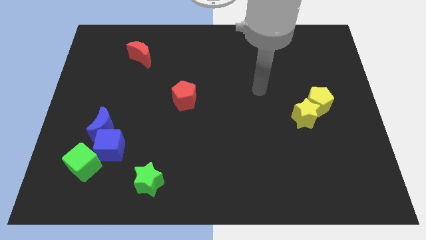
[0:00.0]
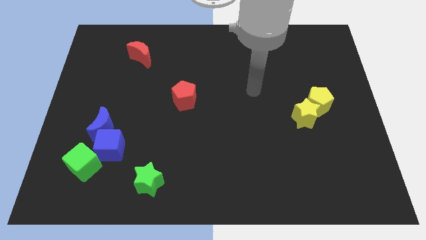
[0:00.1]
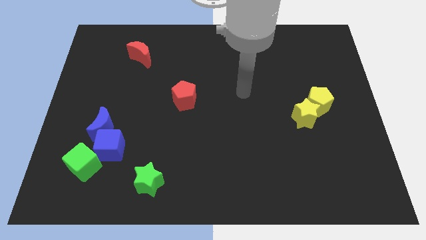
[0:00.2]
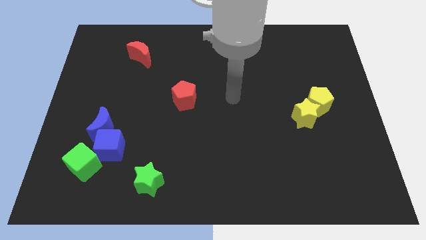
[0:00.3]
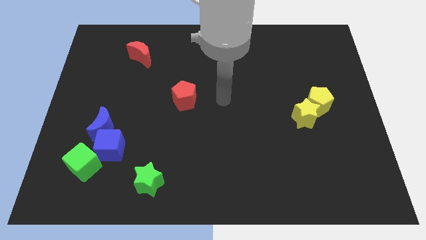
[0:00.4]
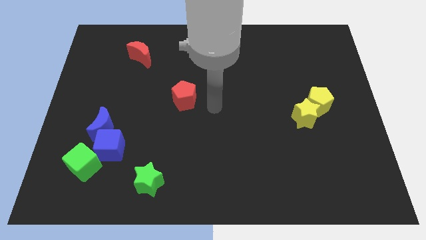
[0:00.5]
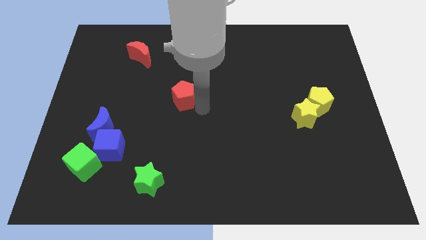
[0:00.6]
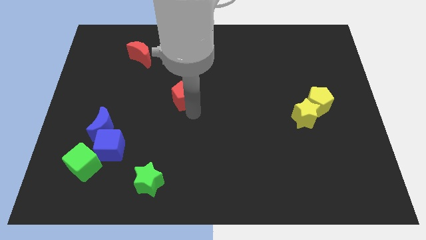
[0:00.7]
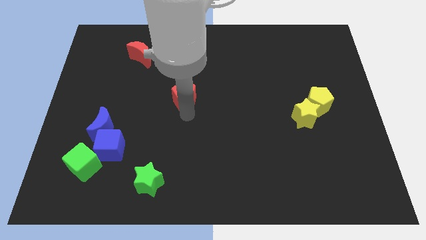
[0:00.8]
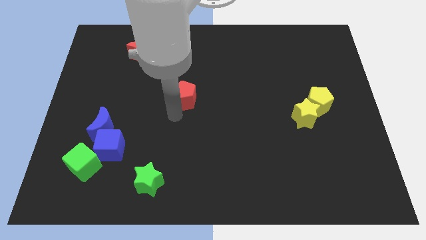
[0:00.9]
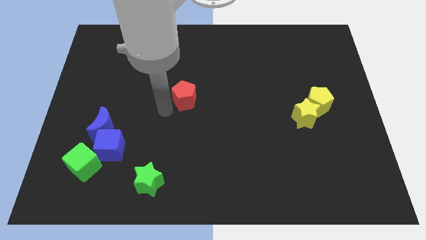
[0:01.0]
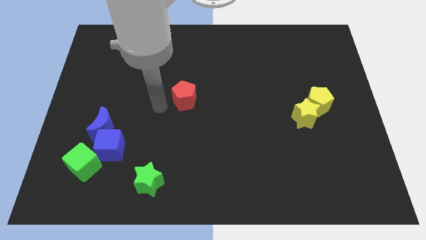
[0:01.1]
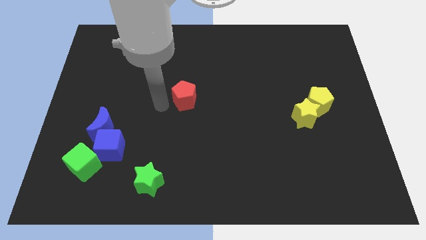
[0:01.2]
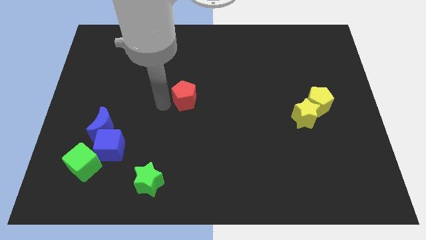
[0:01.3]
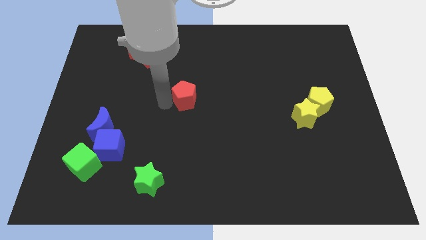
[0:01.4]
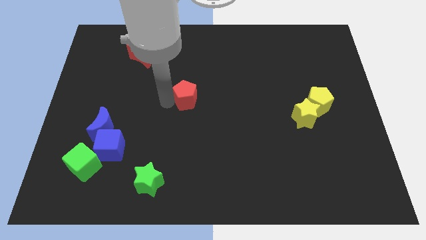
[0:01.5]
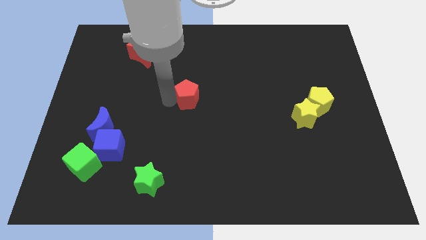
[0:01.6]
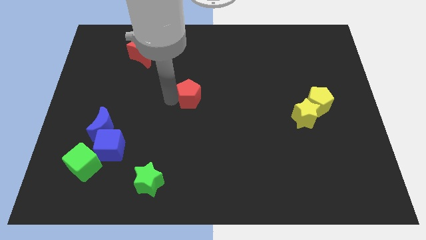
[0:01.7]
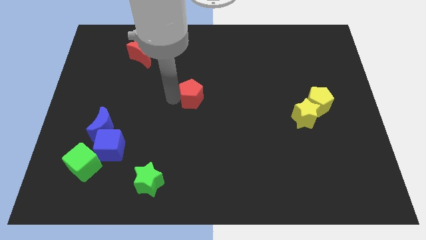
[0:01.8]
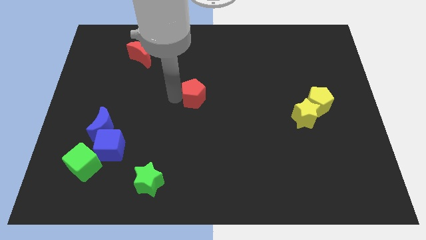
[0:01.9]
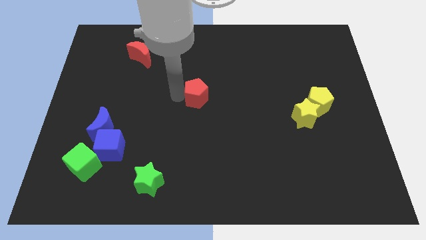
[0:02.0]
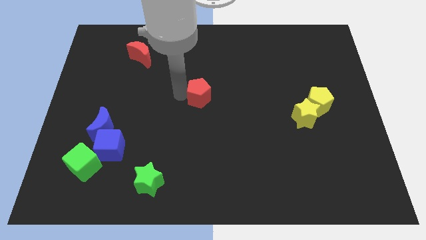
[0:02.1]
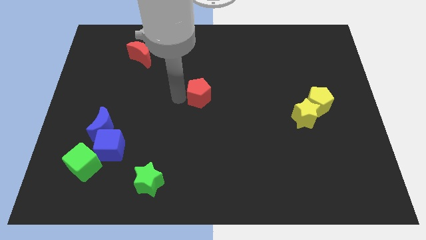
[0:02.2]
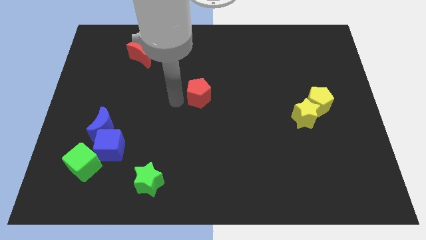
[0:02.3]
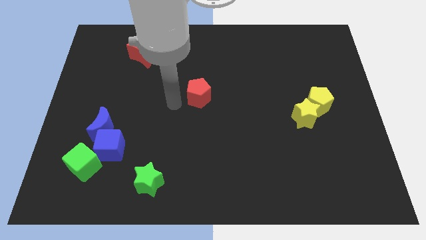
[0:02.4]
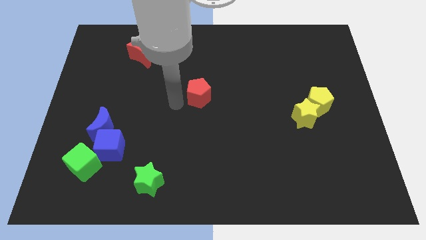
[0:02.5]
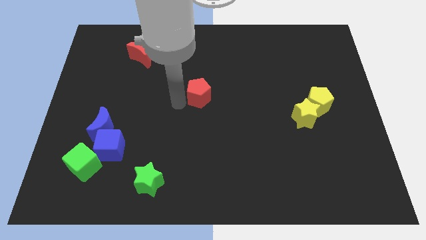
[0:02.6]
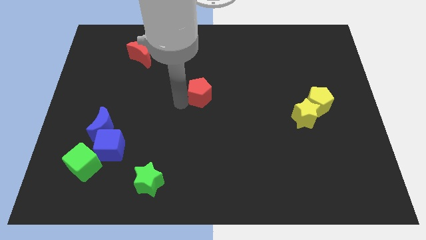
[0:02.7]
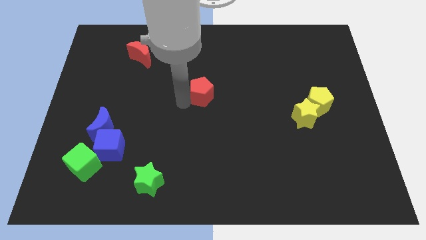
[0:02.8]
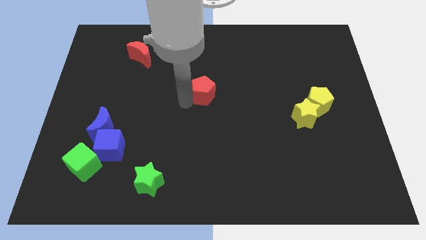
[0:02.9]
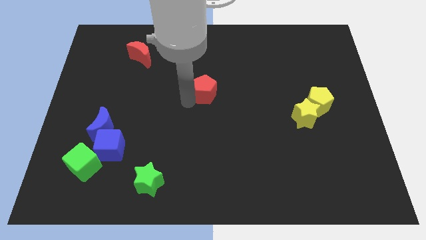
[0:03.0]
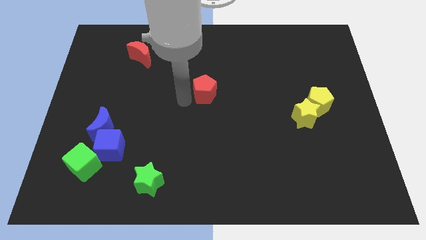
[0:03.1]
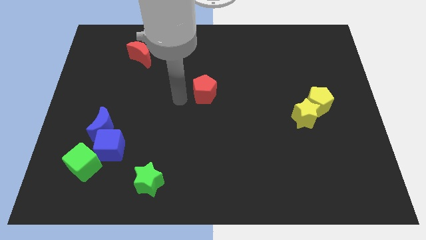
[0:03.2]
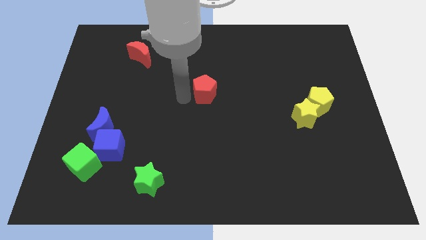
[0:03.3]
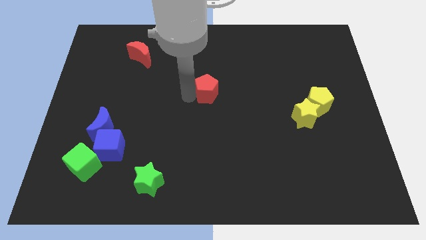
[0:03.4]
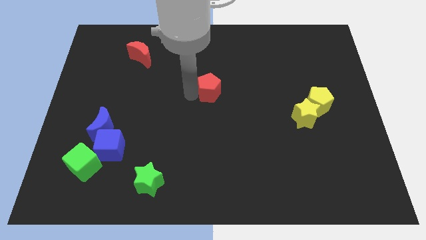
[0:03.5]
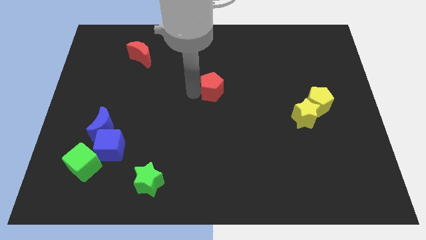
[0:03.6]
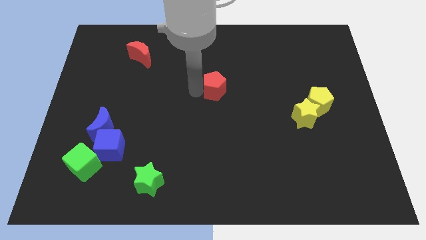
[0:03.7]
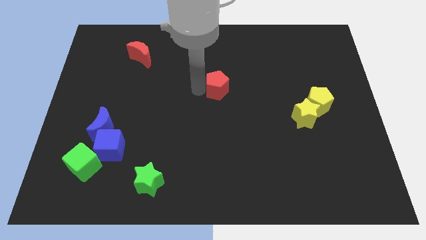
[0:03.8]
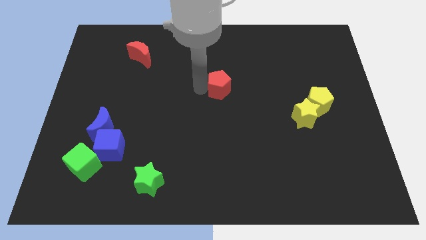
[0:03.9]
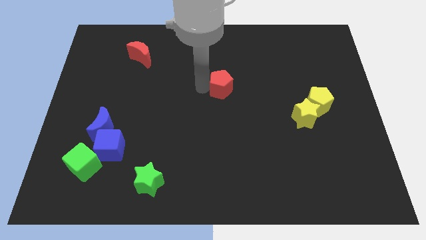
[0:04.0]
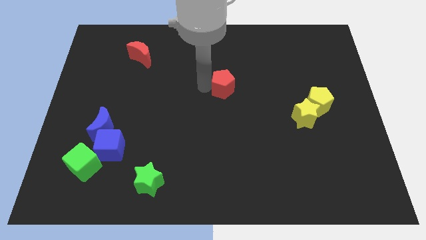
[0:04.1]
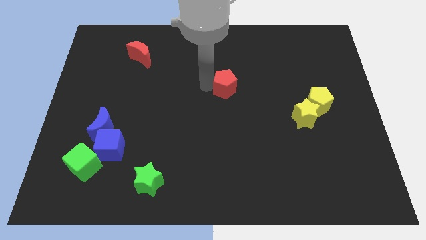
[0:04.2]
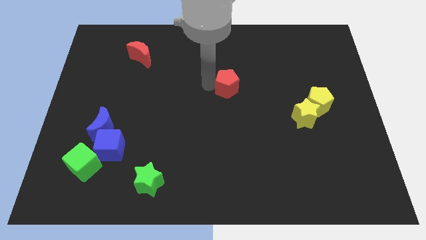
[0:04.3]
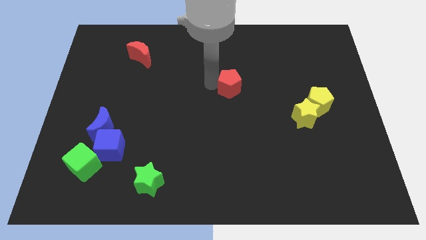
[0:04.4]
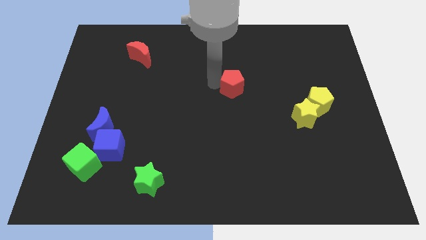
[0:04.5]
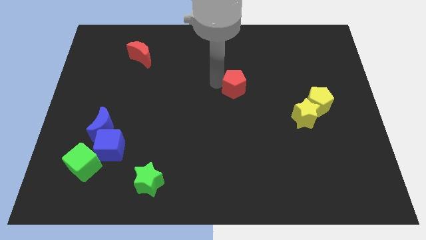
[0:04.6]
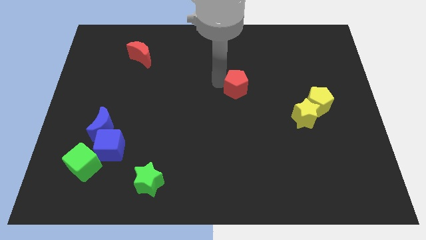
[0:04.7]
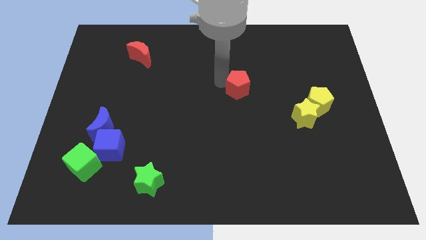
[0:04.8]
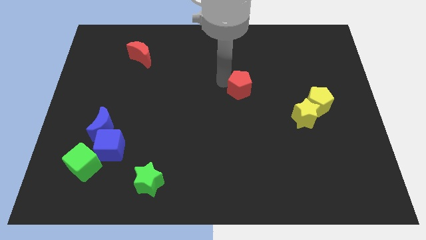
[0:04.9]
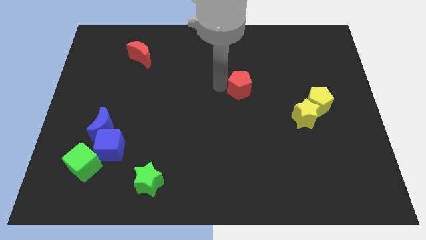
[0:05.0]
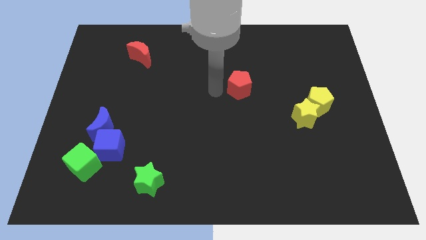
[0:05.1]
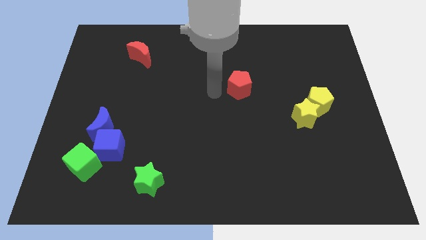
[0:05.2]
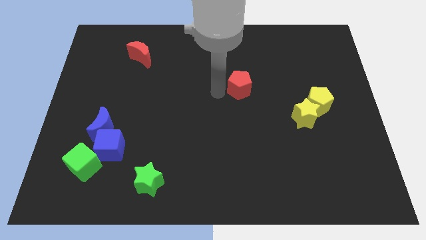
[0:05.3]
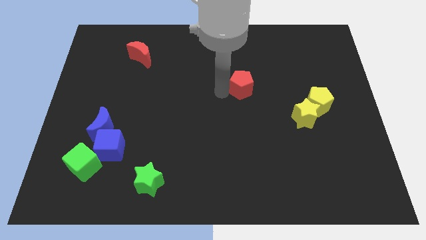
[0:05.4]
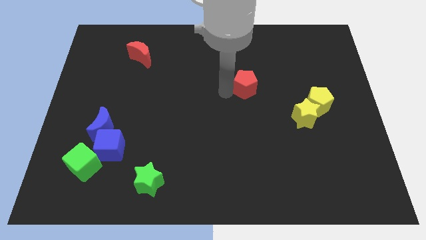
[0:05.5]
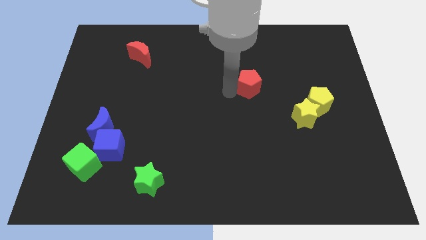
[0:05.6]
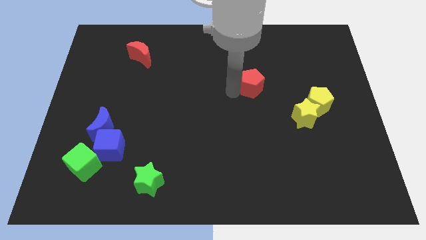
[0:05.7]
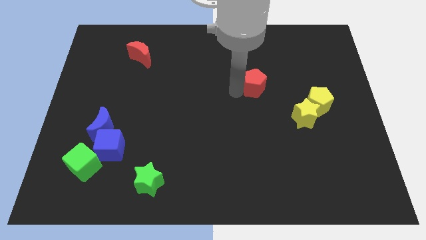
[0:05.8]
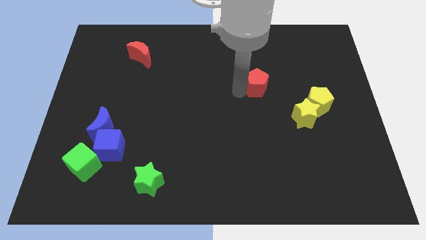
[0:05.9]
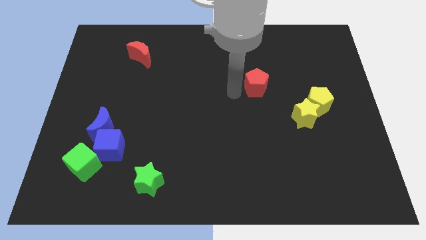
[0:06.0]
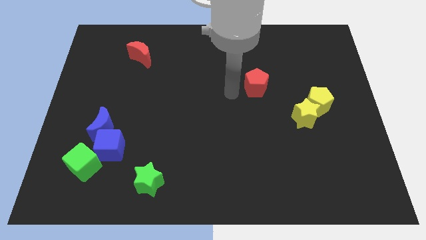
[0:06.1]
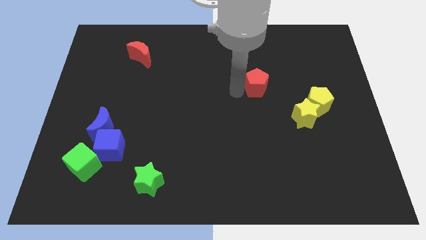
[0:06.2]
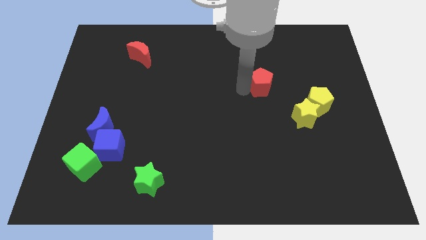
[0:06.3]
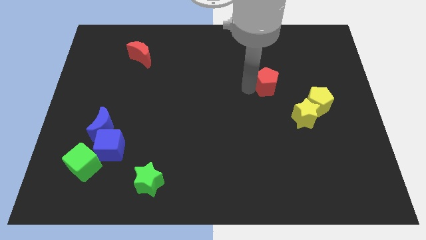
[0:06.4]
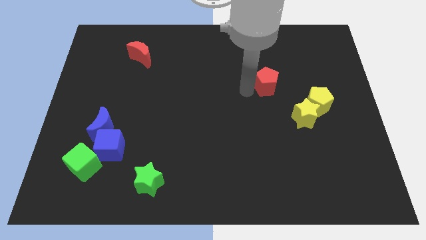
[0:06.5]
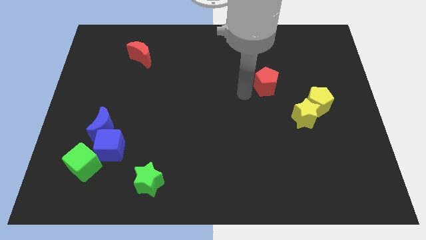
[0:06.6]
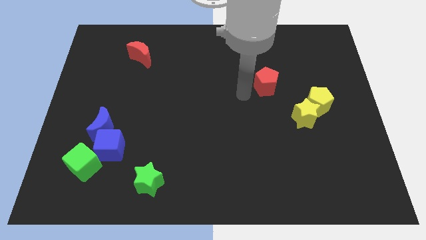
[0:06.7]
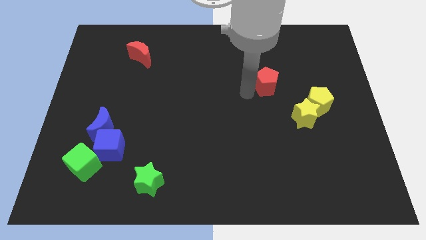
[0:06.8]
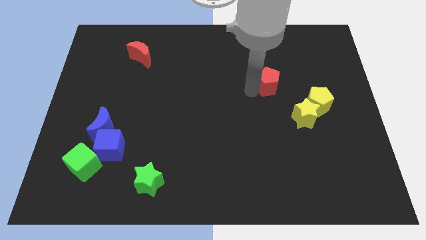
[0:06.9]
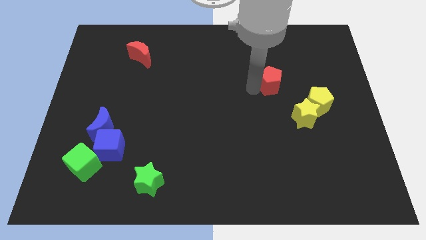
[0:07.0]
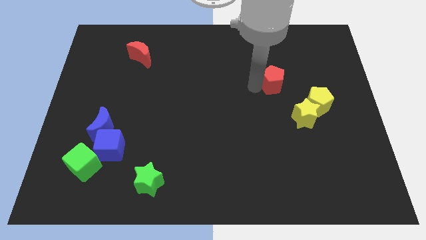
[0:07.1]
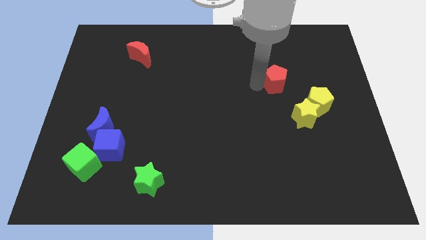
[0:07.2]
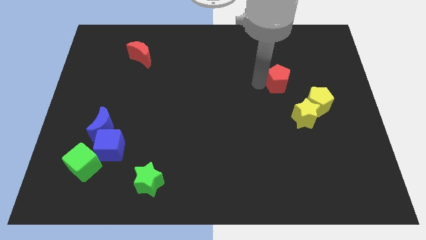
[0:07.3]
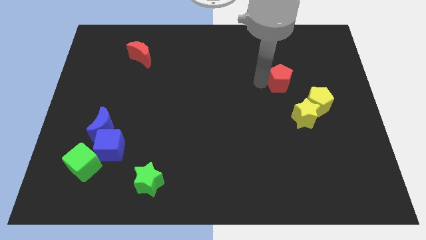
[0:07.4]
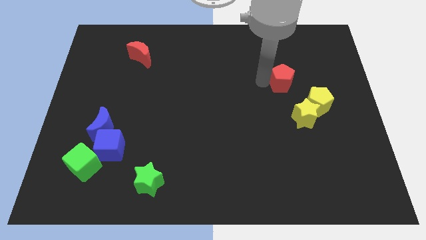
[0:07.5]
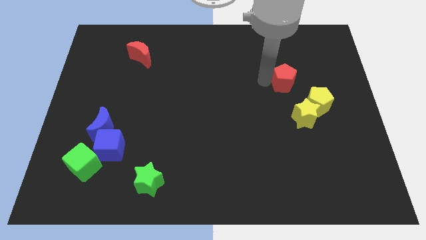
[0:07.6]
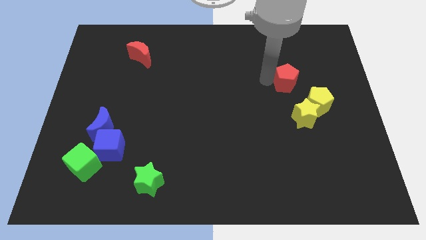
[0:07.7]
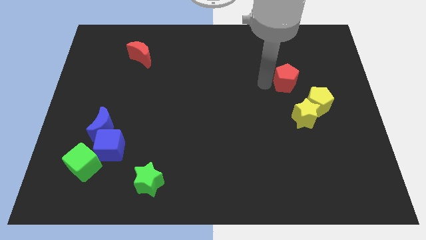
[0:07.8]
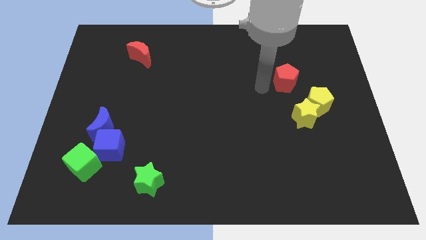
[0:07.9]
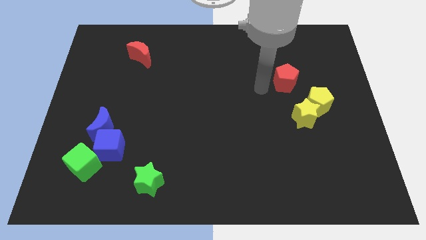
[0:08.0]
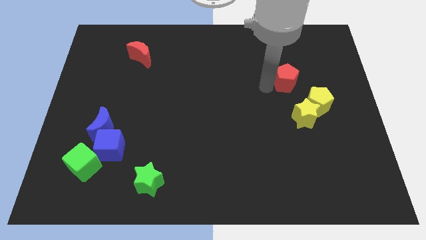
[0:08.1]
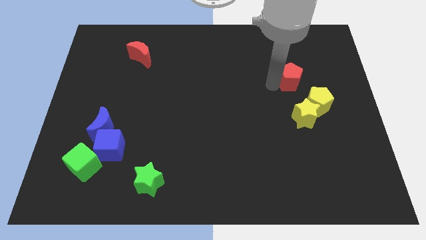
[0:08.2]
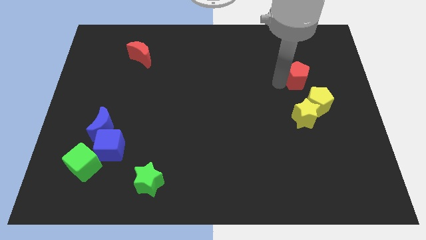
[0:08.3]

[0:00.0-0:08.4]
push the red pentagon to the top of the yellow pentagon
